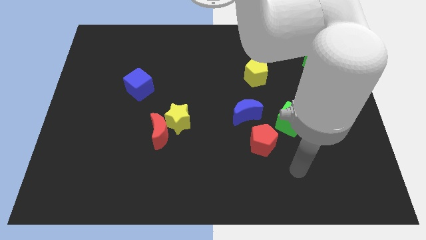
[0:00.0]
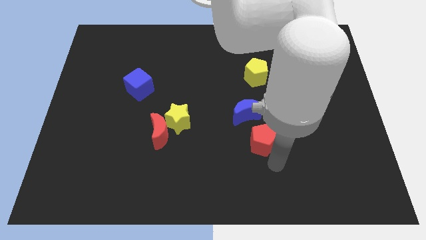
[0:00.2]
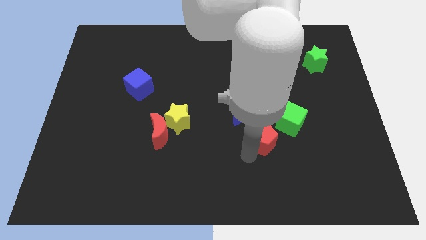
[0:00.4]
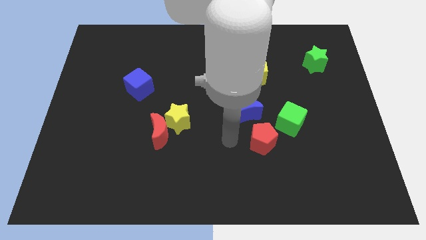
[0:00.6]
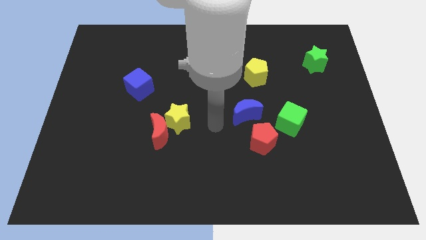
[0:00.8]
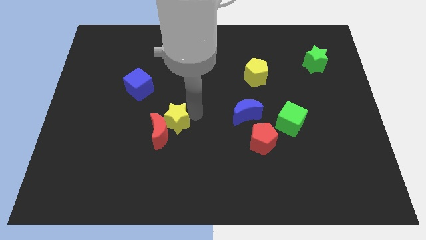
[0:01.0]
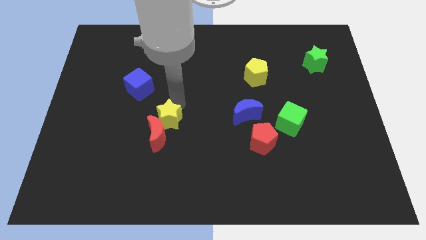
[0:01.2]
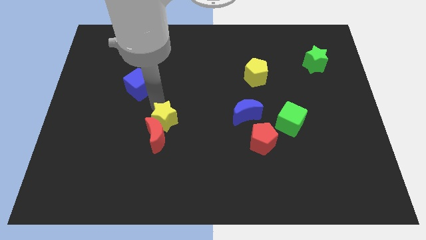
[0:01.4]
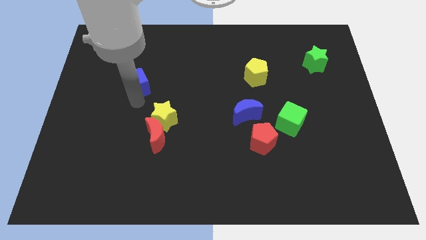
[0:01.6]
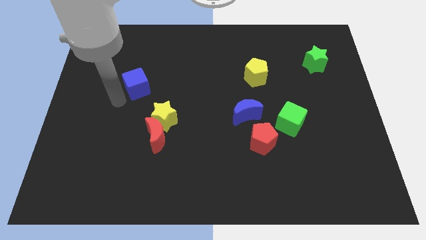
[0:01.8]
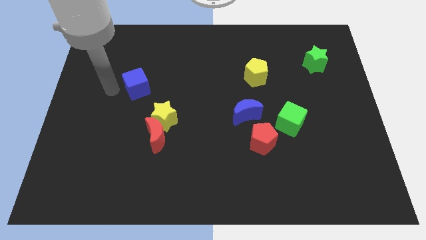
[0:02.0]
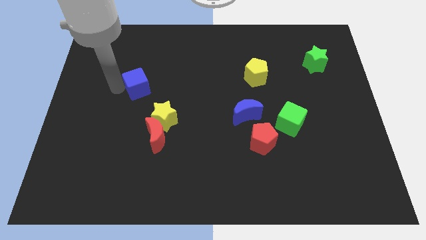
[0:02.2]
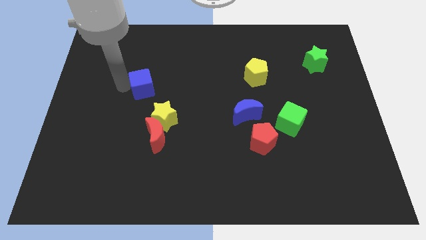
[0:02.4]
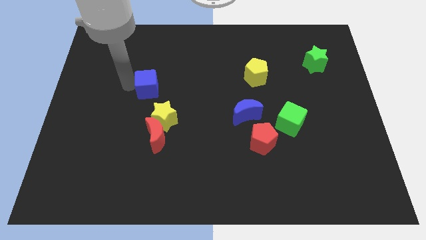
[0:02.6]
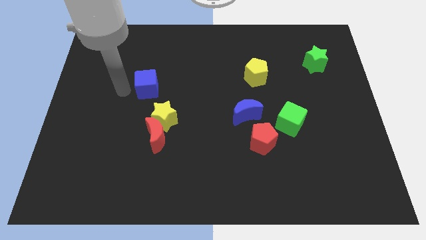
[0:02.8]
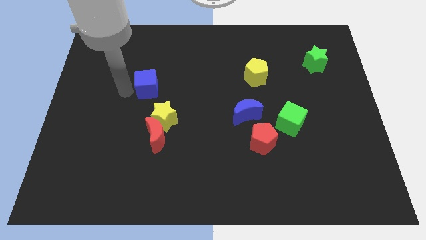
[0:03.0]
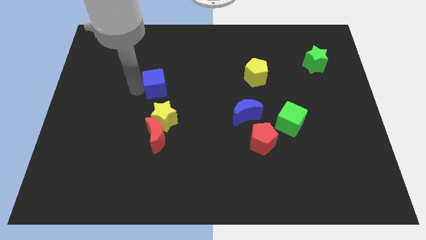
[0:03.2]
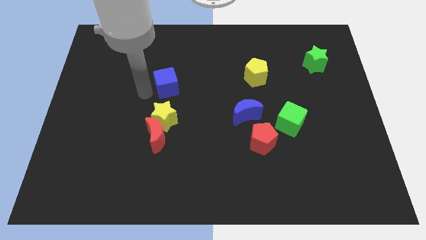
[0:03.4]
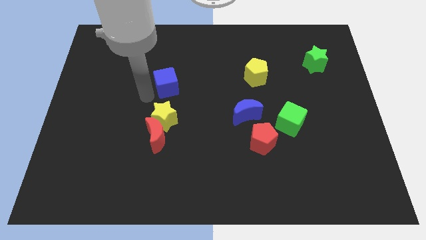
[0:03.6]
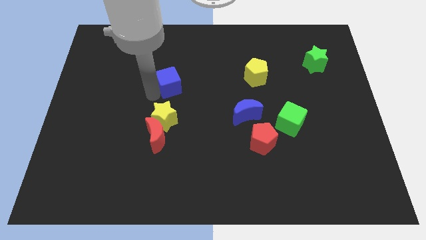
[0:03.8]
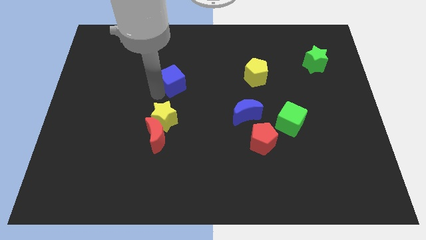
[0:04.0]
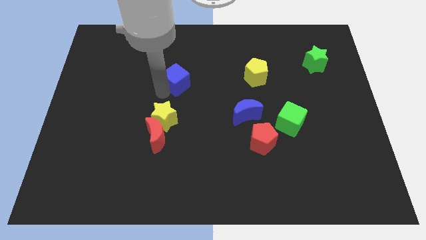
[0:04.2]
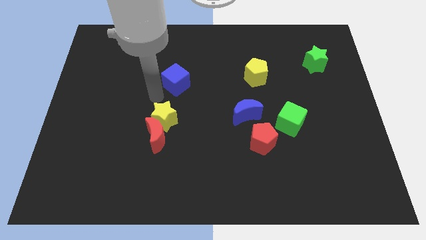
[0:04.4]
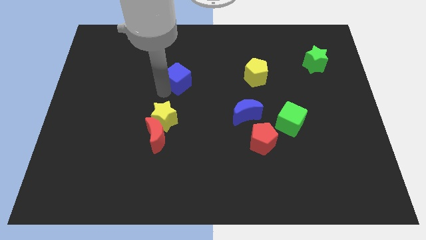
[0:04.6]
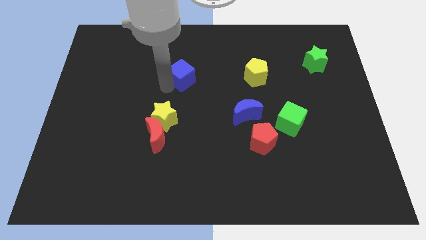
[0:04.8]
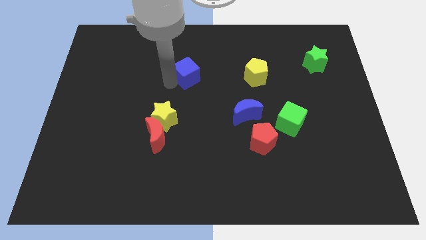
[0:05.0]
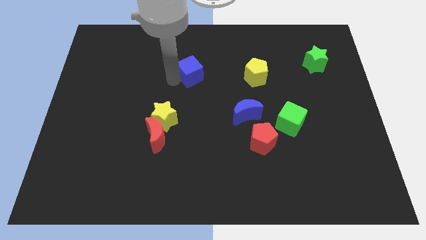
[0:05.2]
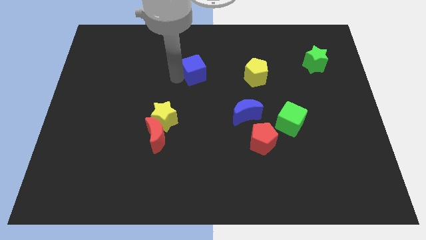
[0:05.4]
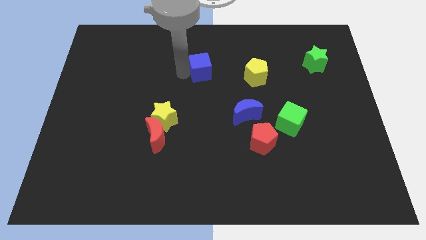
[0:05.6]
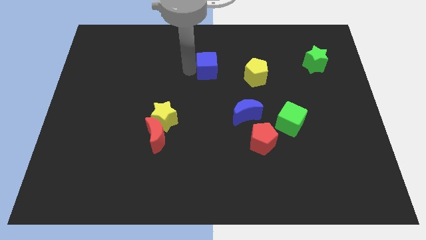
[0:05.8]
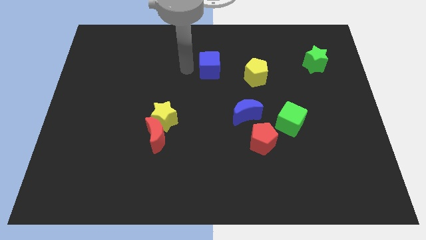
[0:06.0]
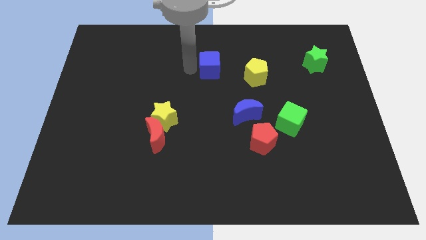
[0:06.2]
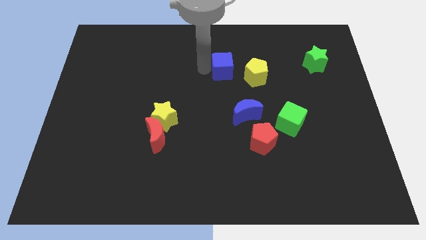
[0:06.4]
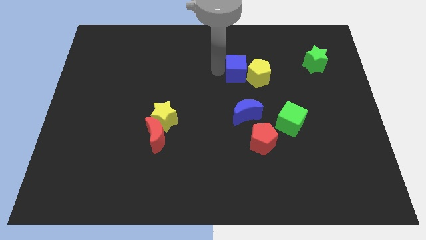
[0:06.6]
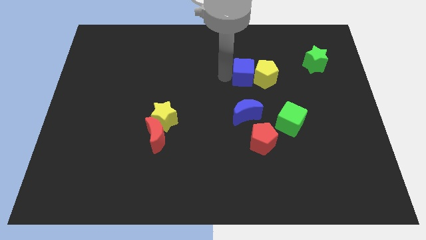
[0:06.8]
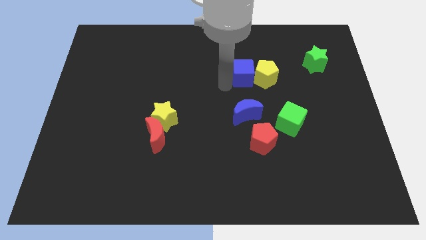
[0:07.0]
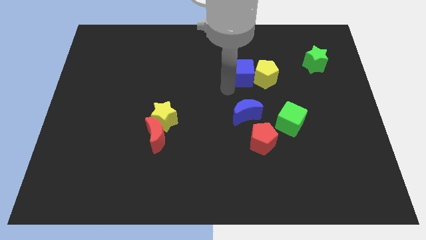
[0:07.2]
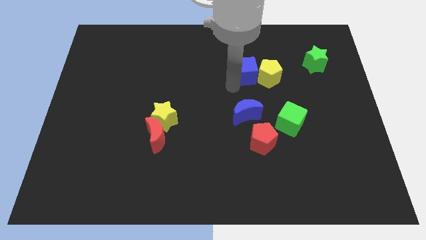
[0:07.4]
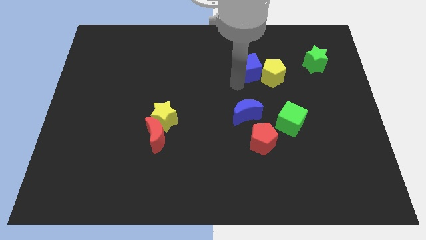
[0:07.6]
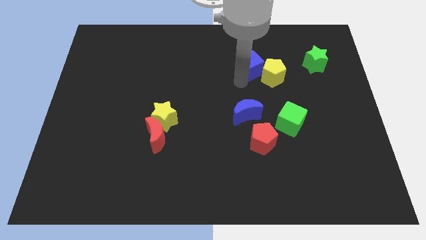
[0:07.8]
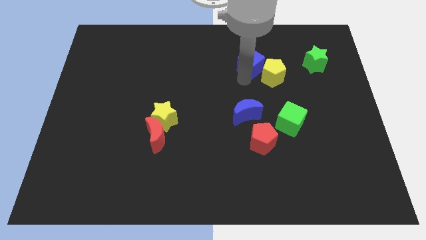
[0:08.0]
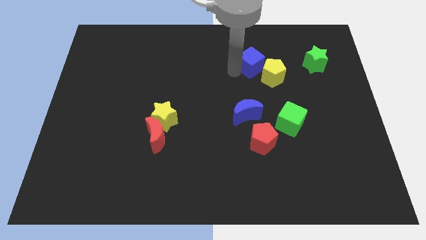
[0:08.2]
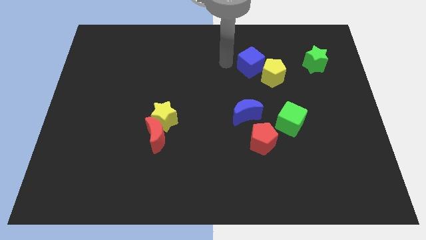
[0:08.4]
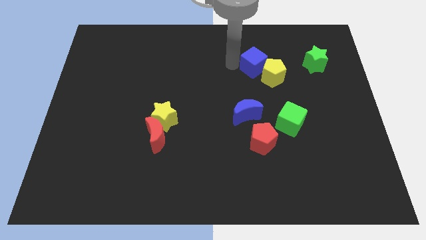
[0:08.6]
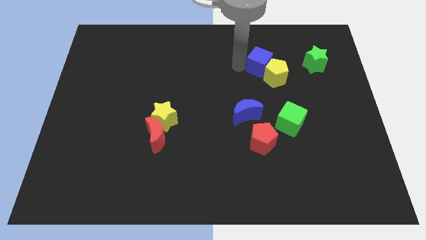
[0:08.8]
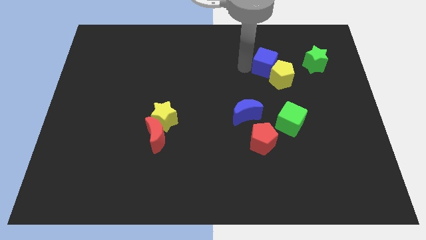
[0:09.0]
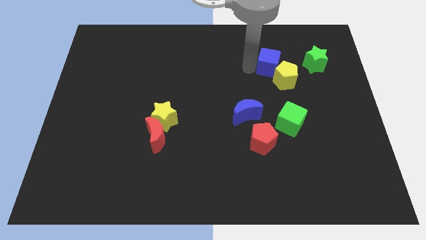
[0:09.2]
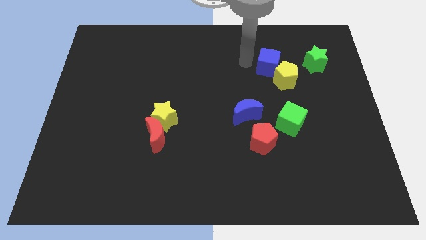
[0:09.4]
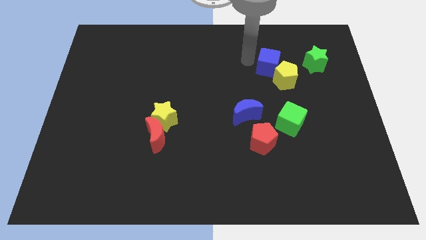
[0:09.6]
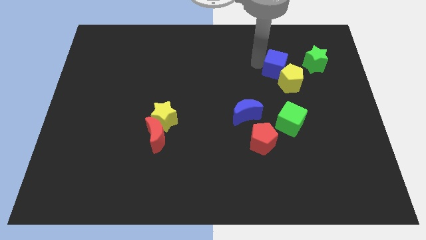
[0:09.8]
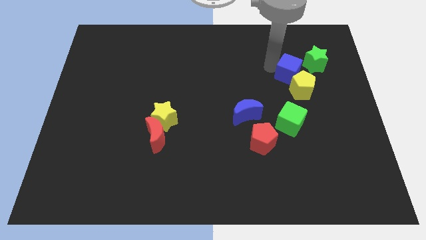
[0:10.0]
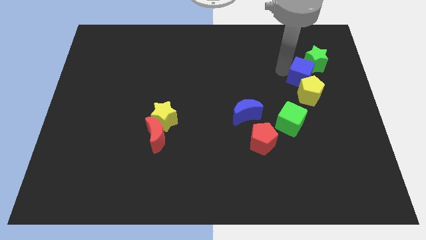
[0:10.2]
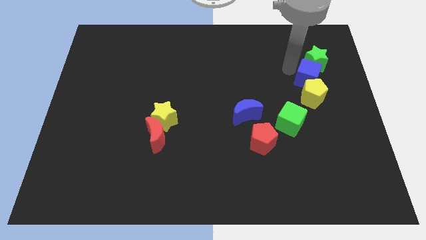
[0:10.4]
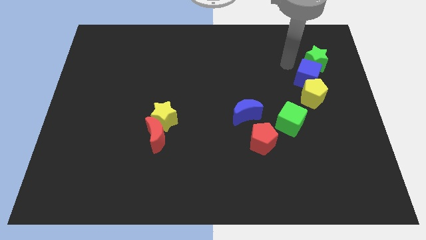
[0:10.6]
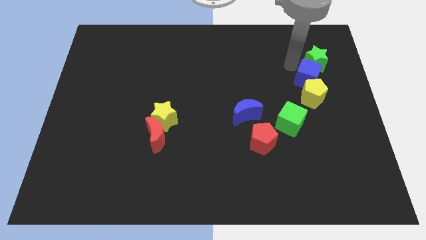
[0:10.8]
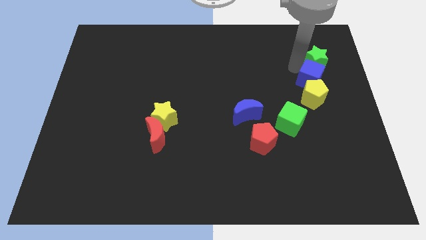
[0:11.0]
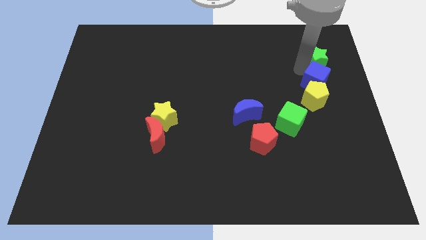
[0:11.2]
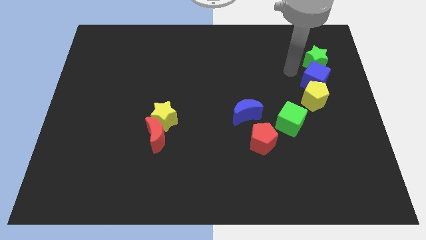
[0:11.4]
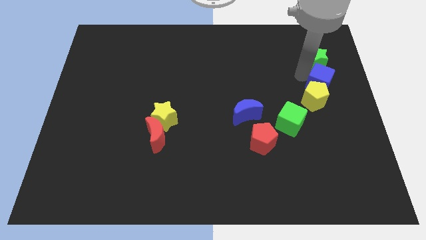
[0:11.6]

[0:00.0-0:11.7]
push the blue cube to the right side of the board

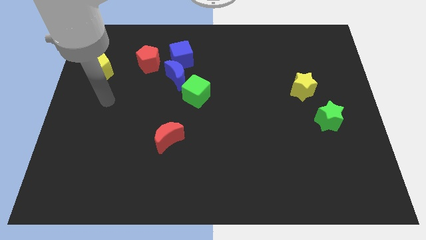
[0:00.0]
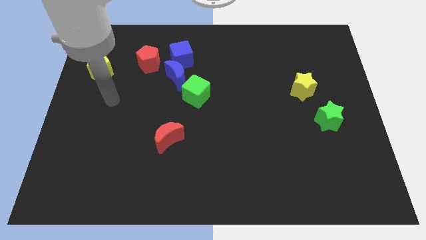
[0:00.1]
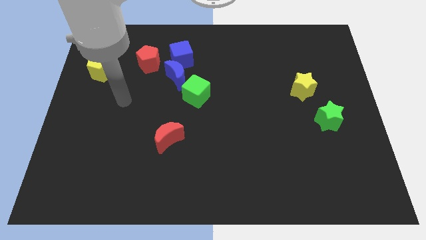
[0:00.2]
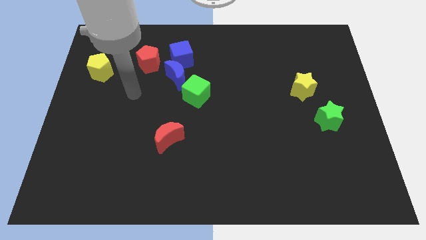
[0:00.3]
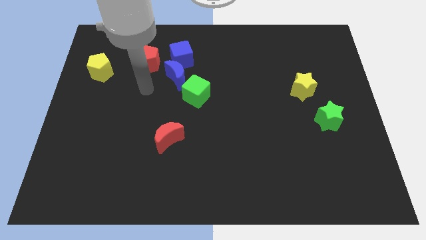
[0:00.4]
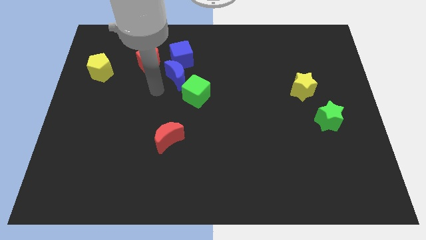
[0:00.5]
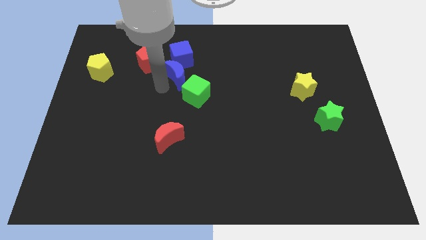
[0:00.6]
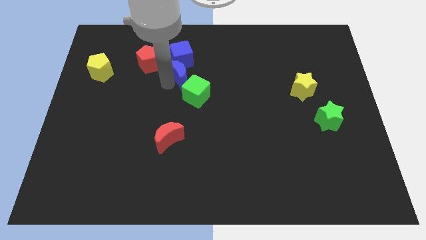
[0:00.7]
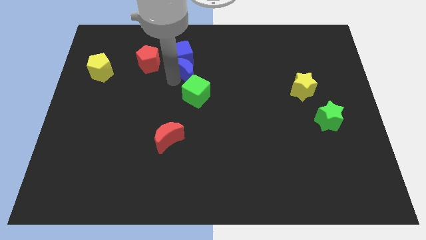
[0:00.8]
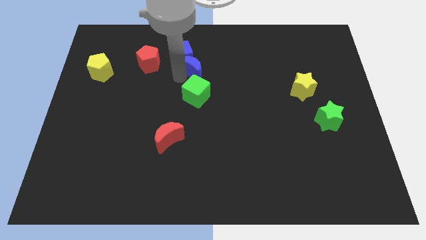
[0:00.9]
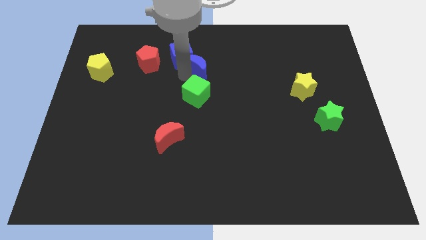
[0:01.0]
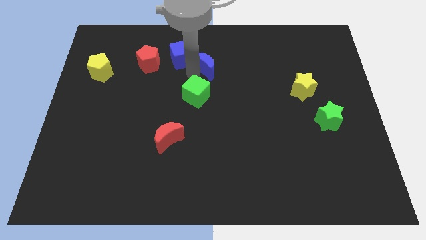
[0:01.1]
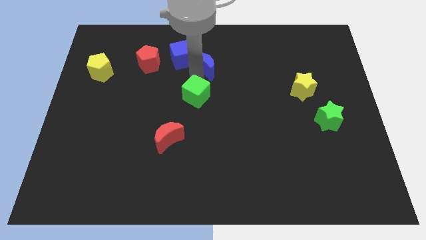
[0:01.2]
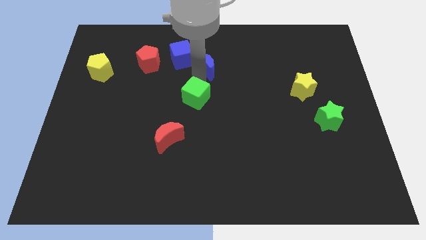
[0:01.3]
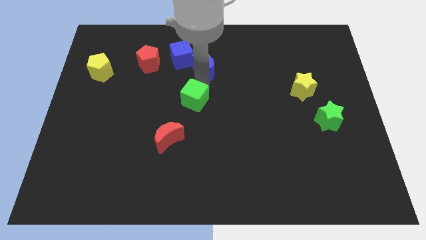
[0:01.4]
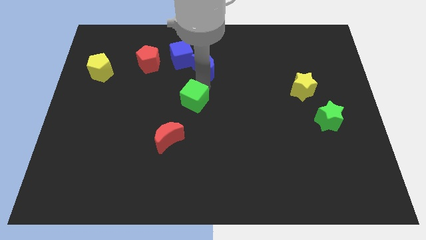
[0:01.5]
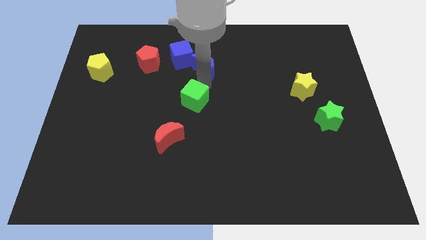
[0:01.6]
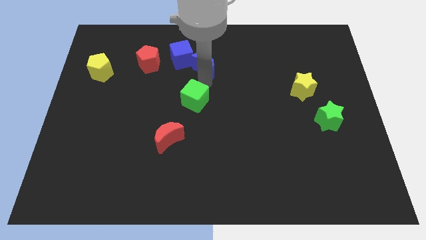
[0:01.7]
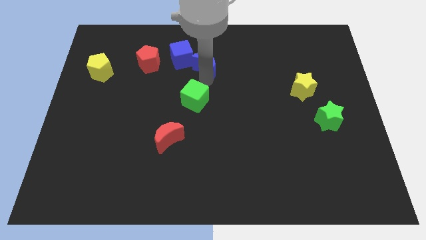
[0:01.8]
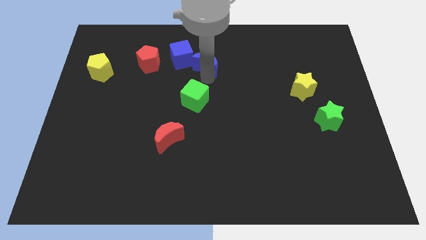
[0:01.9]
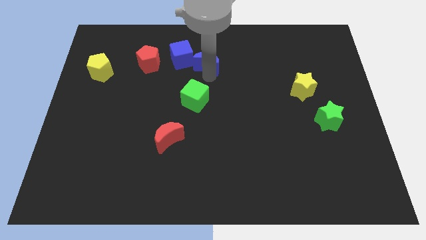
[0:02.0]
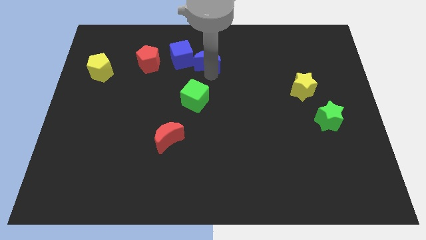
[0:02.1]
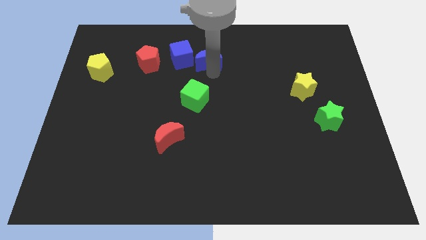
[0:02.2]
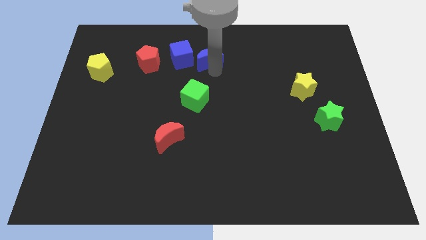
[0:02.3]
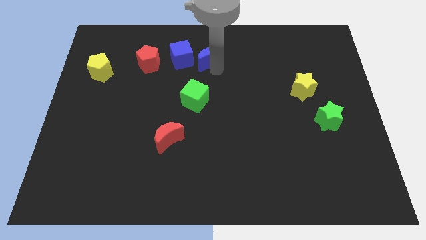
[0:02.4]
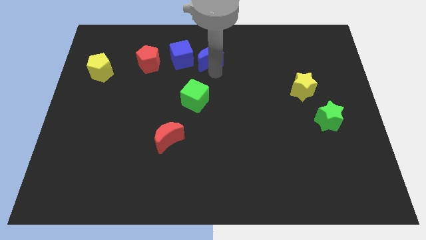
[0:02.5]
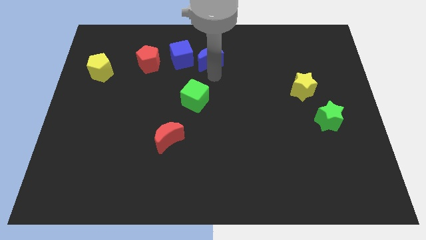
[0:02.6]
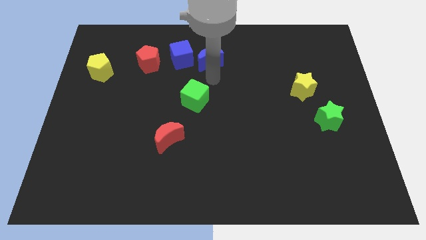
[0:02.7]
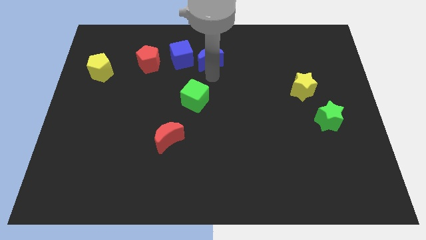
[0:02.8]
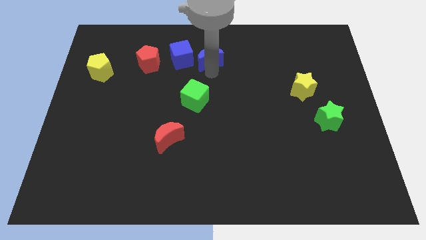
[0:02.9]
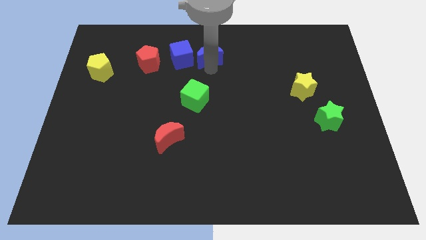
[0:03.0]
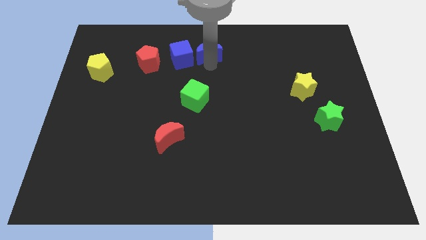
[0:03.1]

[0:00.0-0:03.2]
move the blue moon to the top
